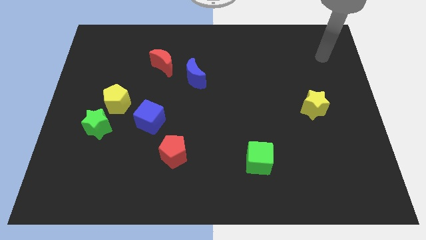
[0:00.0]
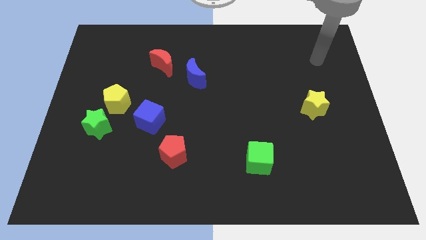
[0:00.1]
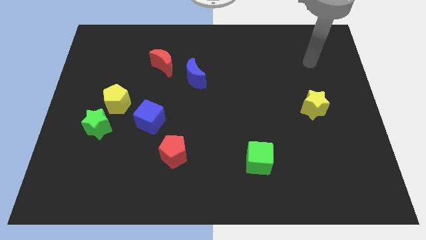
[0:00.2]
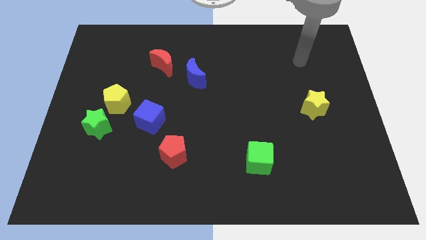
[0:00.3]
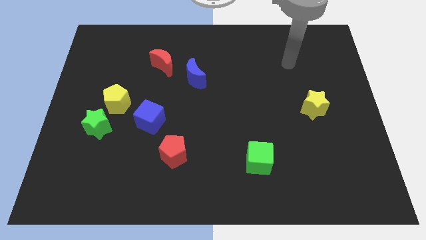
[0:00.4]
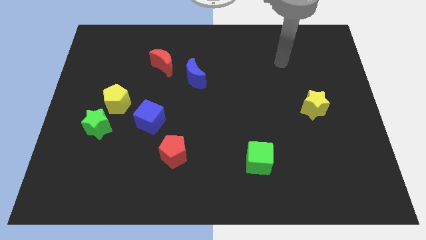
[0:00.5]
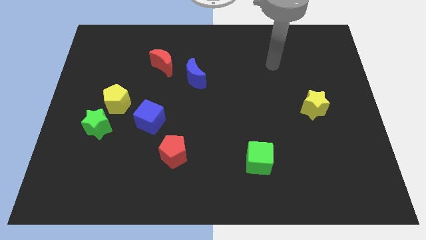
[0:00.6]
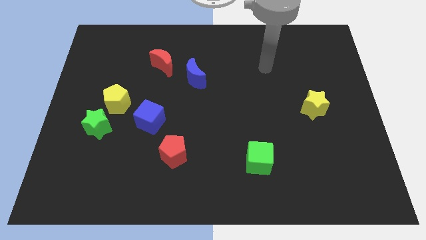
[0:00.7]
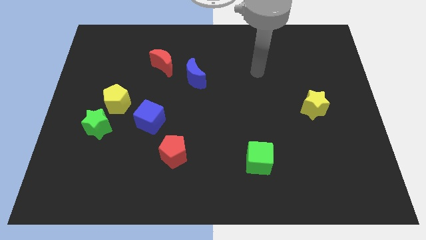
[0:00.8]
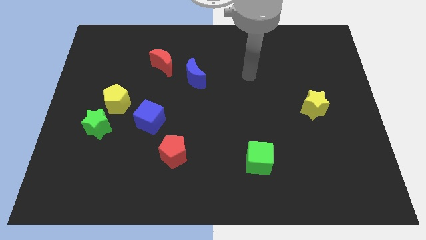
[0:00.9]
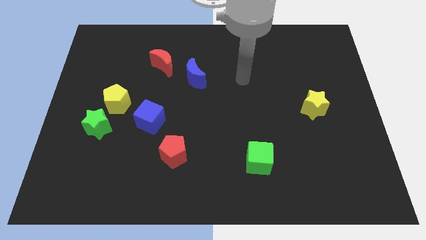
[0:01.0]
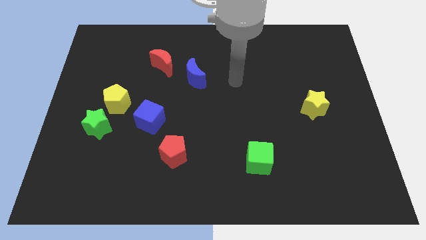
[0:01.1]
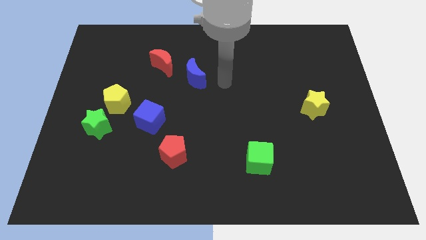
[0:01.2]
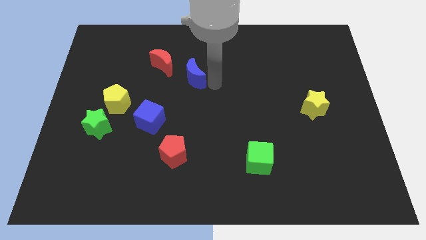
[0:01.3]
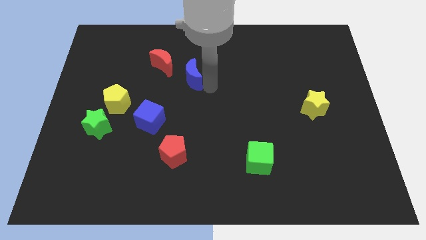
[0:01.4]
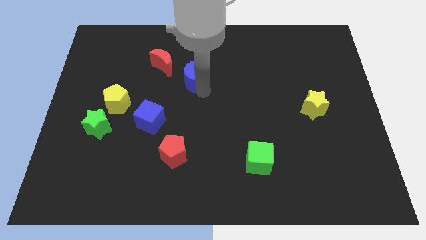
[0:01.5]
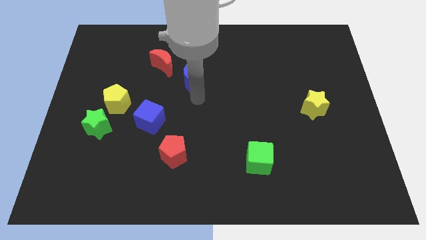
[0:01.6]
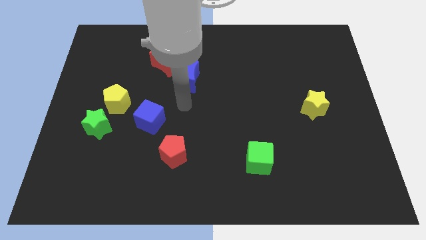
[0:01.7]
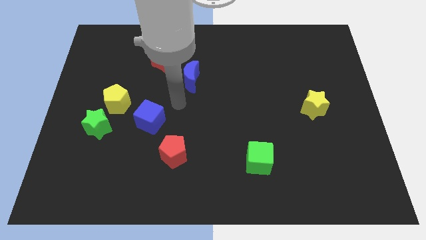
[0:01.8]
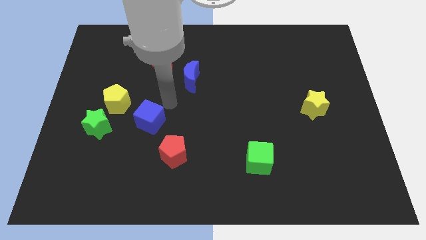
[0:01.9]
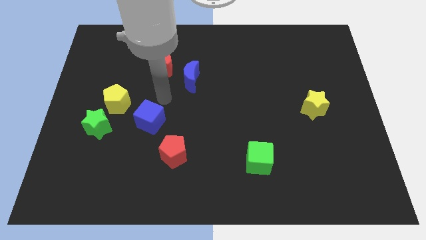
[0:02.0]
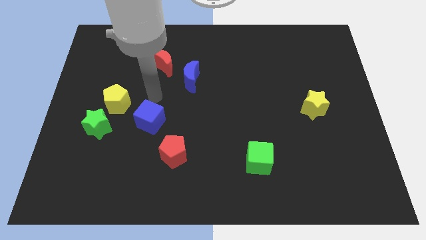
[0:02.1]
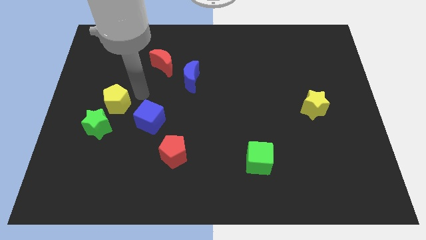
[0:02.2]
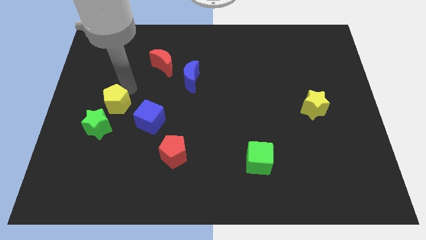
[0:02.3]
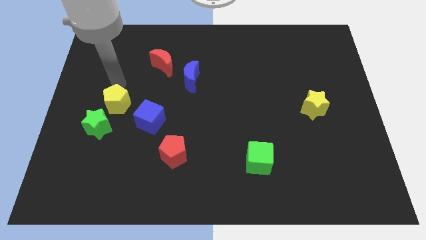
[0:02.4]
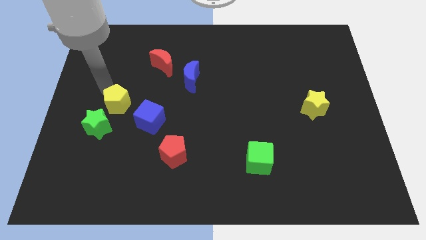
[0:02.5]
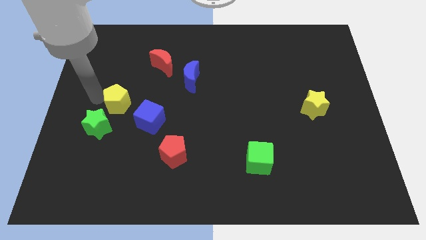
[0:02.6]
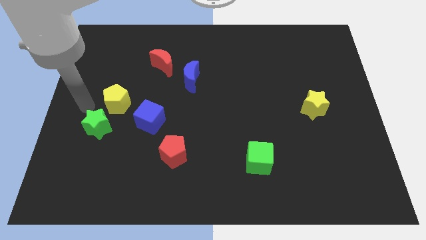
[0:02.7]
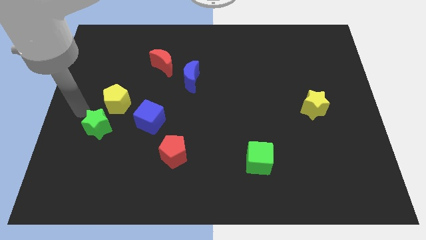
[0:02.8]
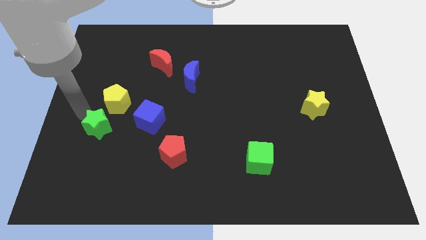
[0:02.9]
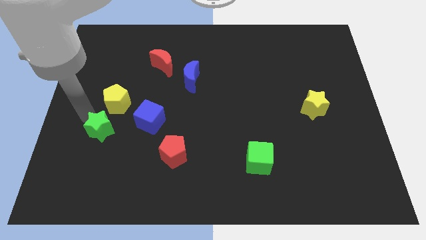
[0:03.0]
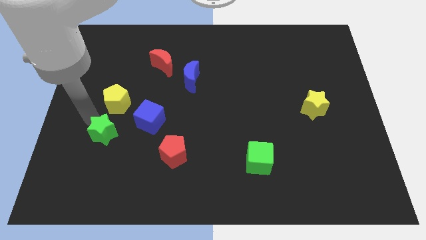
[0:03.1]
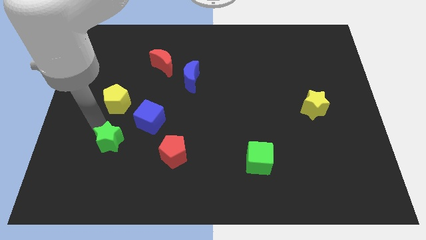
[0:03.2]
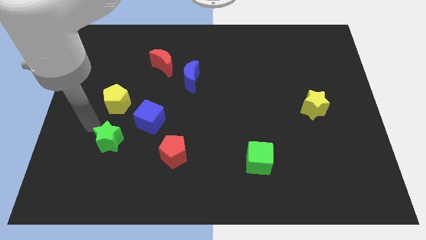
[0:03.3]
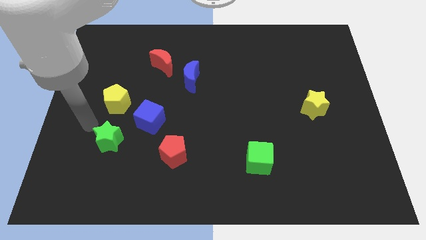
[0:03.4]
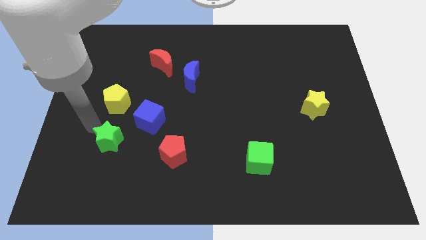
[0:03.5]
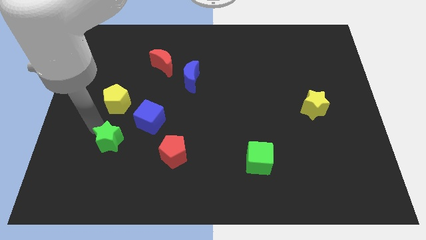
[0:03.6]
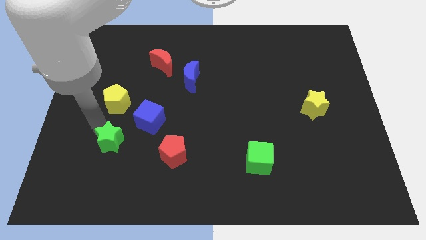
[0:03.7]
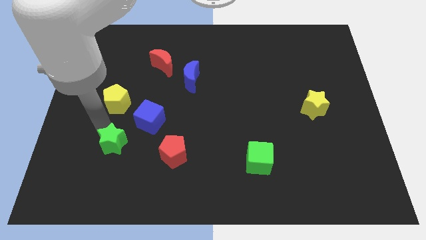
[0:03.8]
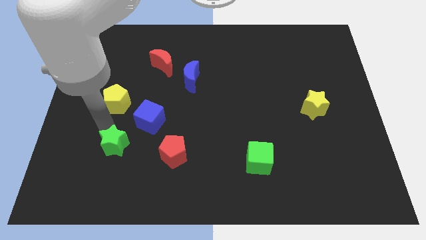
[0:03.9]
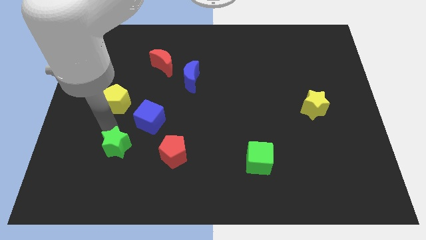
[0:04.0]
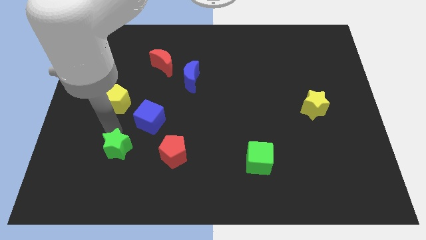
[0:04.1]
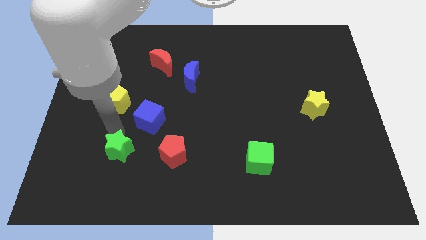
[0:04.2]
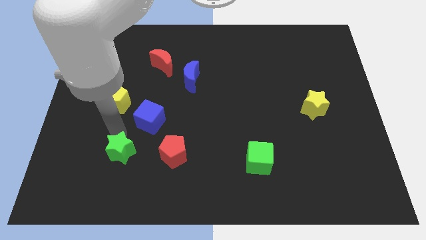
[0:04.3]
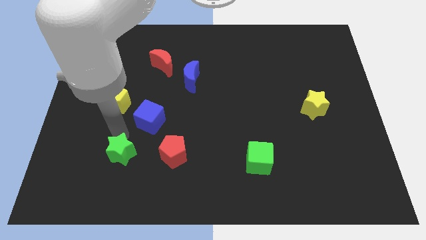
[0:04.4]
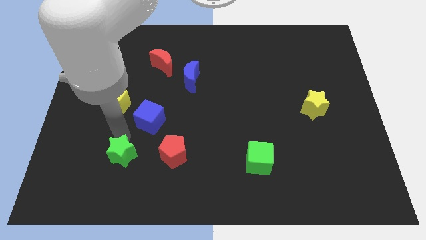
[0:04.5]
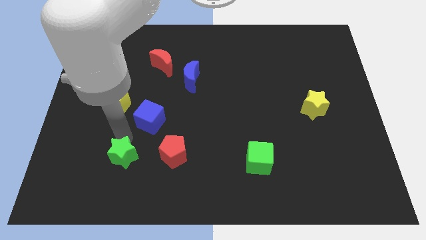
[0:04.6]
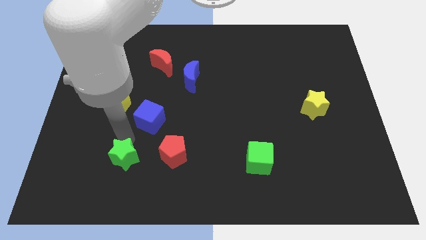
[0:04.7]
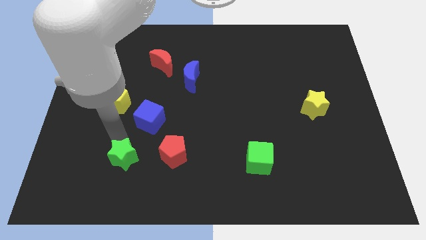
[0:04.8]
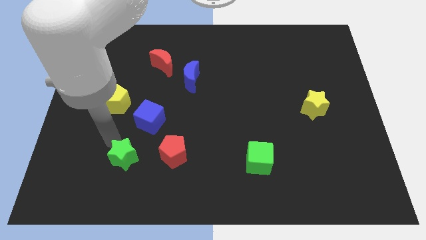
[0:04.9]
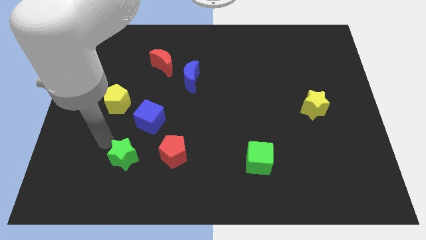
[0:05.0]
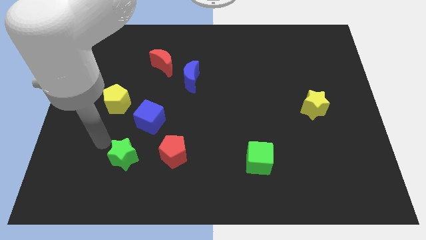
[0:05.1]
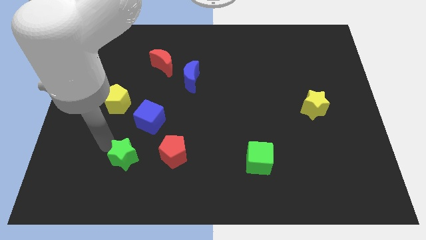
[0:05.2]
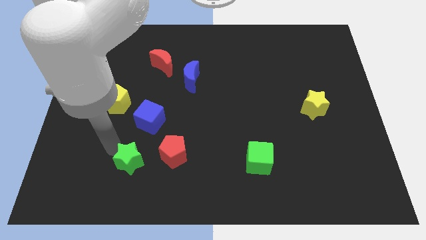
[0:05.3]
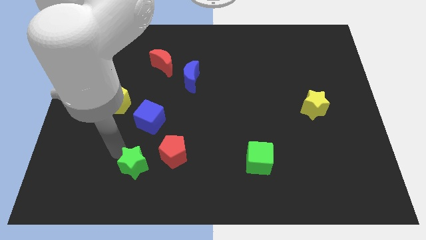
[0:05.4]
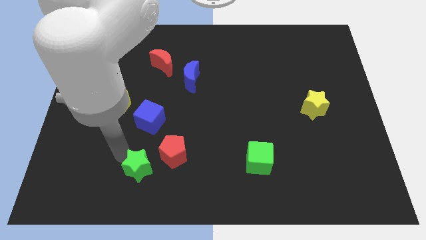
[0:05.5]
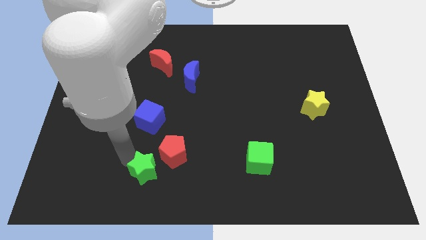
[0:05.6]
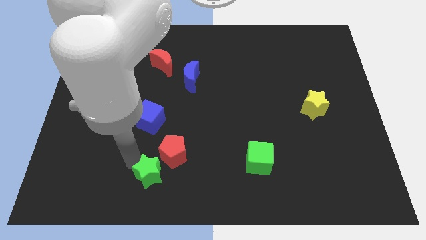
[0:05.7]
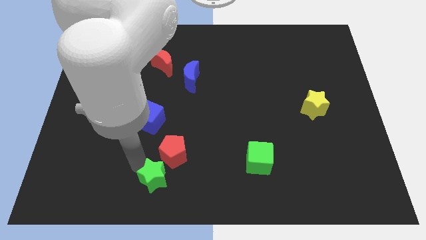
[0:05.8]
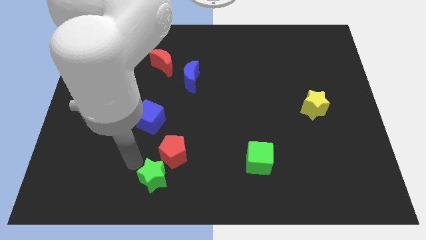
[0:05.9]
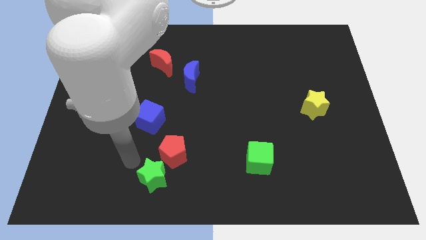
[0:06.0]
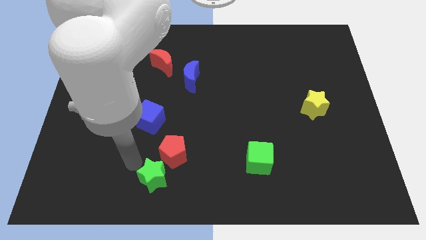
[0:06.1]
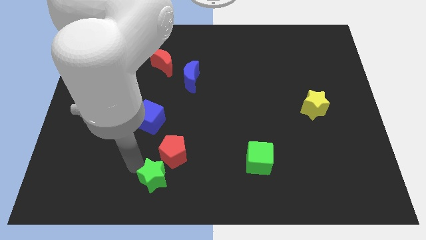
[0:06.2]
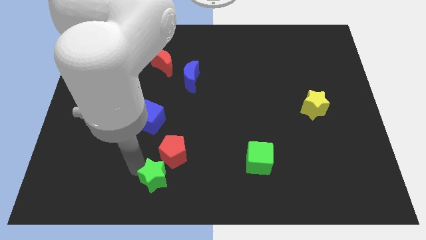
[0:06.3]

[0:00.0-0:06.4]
put the green star to the bottom side

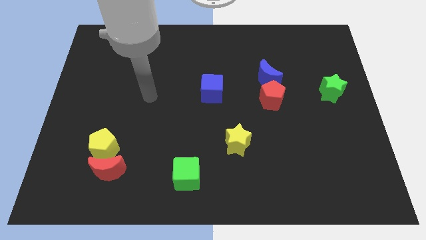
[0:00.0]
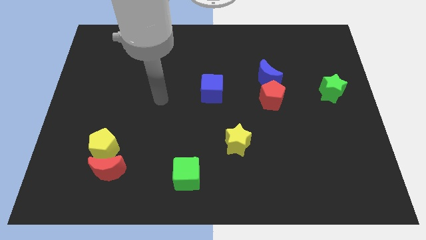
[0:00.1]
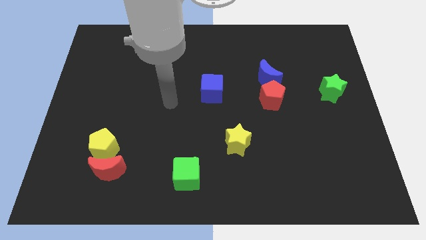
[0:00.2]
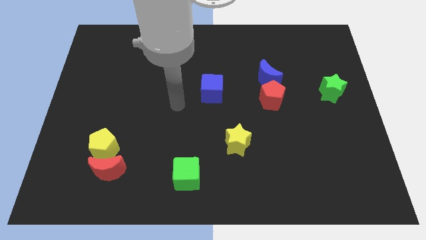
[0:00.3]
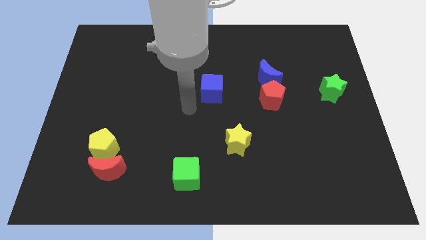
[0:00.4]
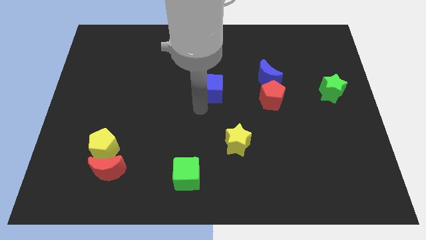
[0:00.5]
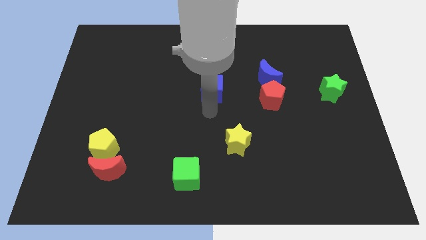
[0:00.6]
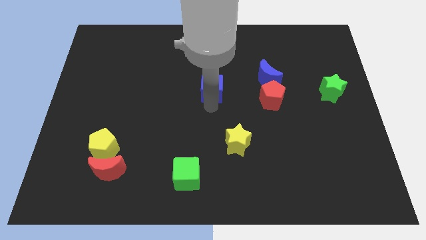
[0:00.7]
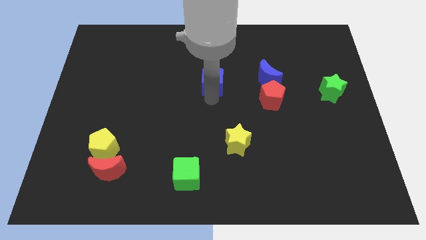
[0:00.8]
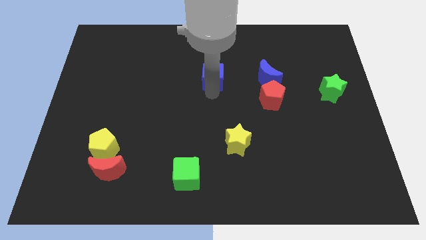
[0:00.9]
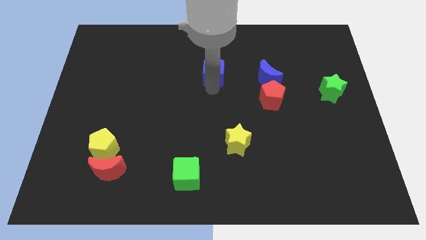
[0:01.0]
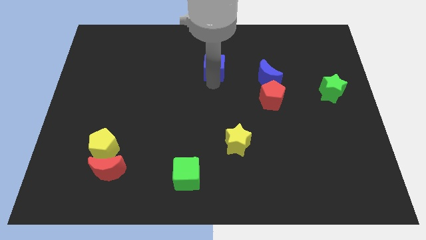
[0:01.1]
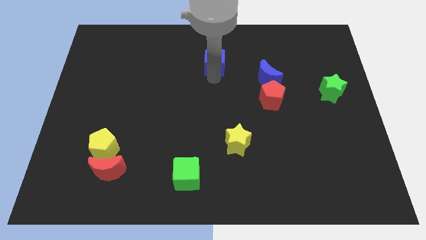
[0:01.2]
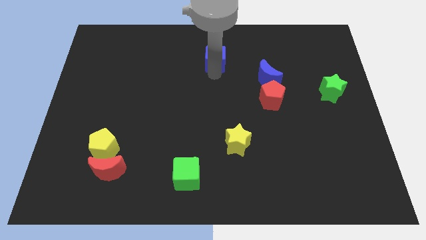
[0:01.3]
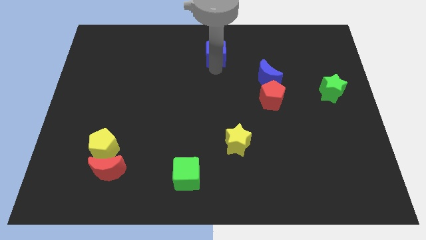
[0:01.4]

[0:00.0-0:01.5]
push the blue cube to the towards your base
